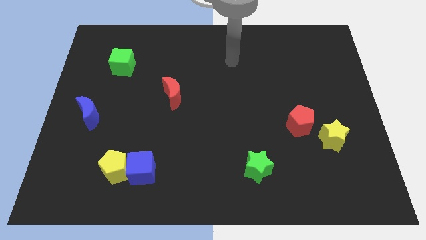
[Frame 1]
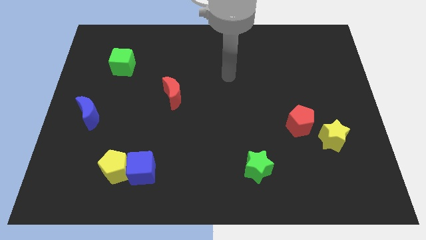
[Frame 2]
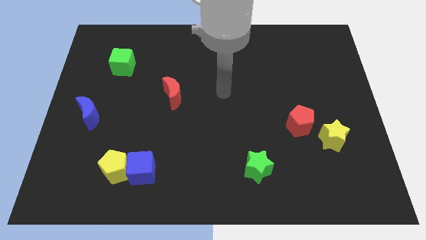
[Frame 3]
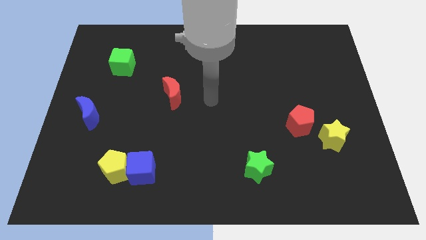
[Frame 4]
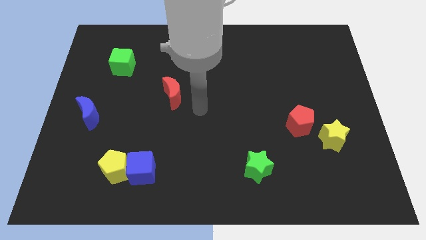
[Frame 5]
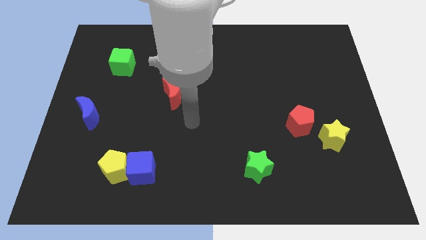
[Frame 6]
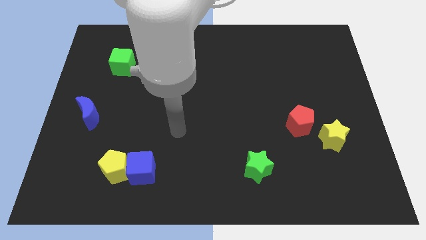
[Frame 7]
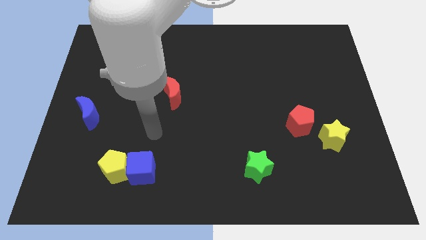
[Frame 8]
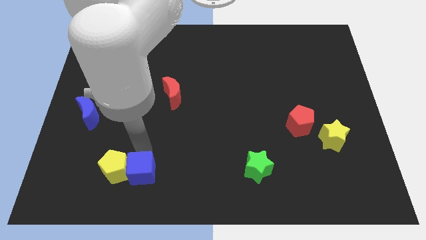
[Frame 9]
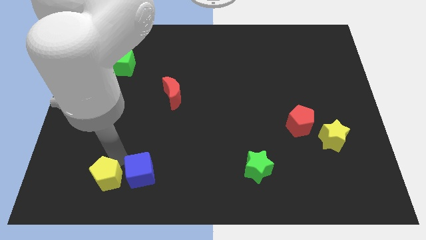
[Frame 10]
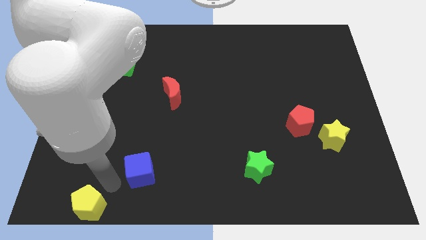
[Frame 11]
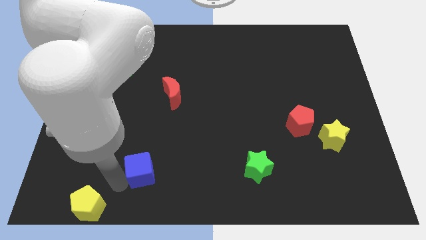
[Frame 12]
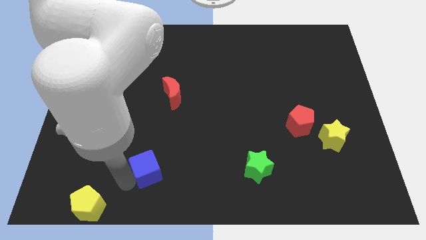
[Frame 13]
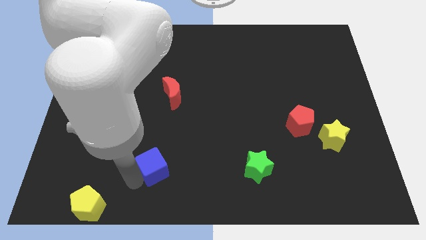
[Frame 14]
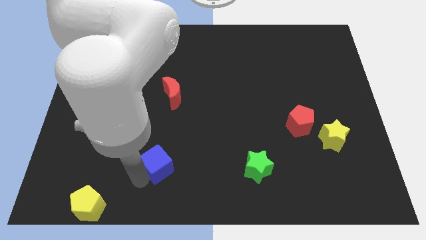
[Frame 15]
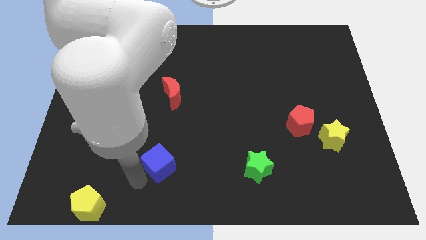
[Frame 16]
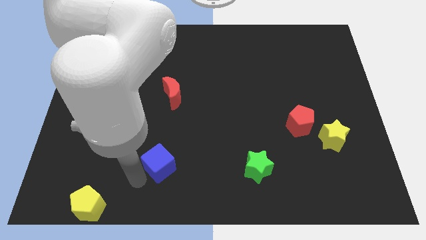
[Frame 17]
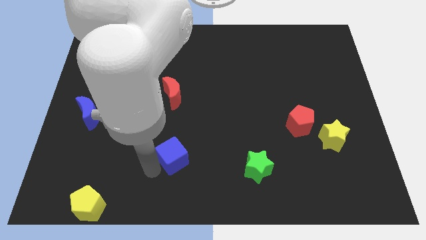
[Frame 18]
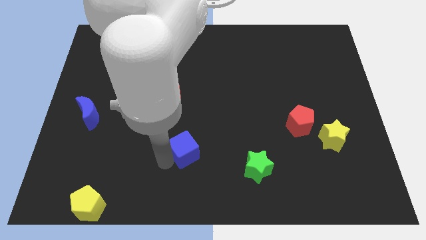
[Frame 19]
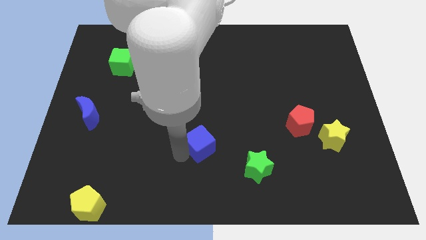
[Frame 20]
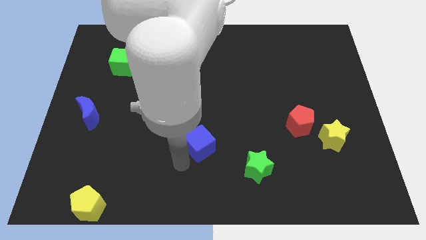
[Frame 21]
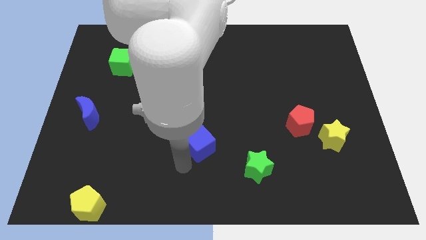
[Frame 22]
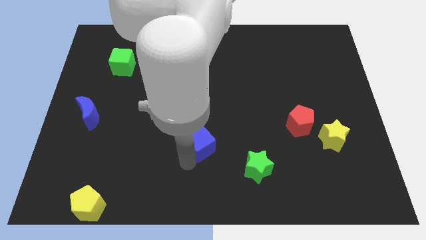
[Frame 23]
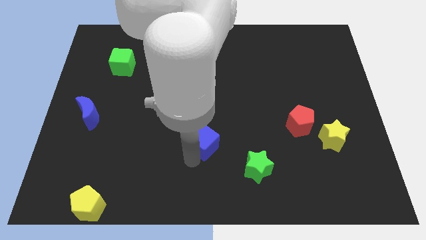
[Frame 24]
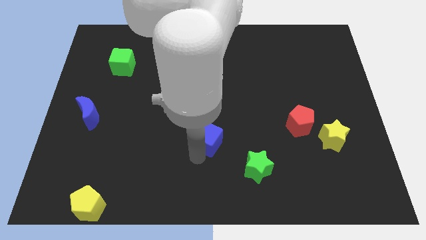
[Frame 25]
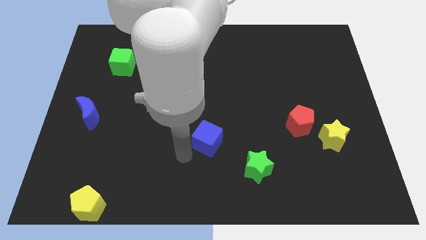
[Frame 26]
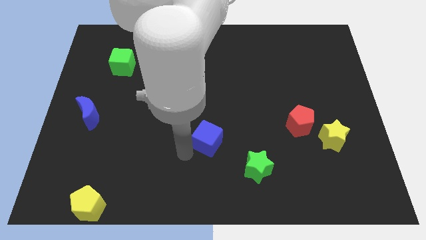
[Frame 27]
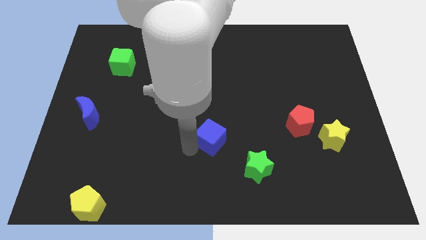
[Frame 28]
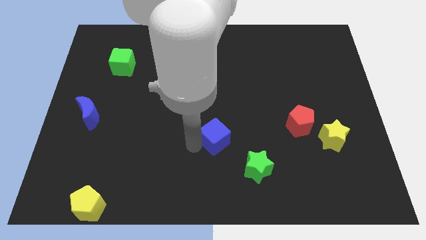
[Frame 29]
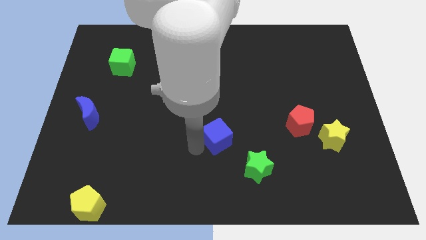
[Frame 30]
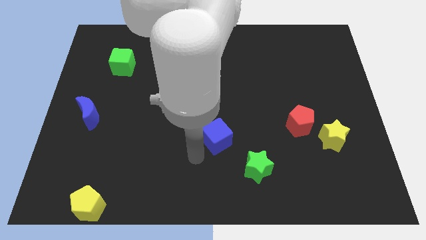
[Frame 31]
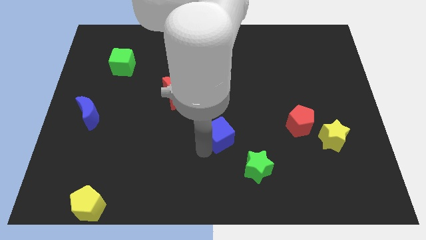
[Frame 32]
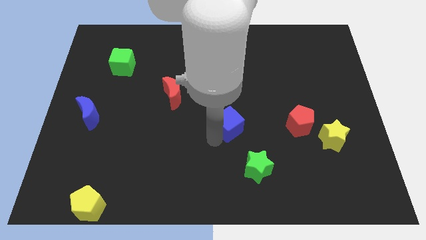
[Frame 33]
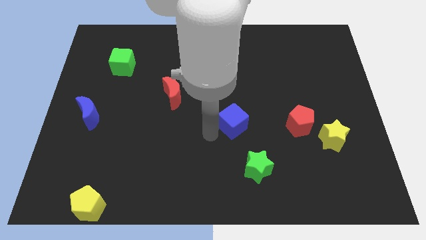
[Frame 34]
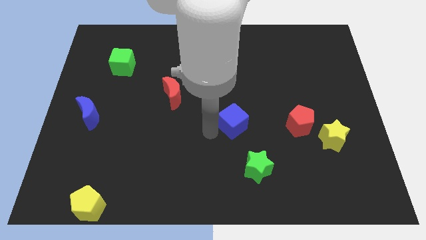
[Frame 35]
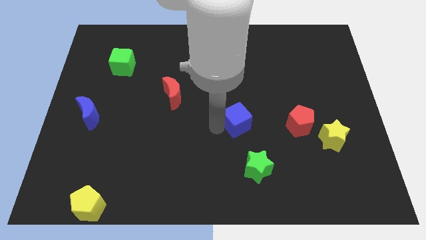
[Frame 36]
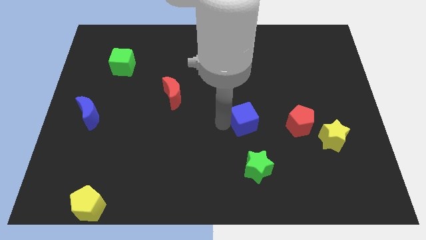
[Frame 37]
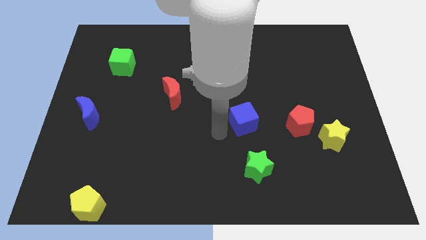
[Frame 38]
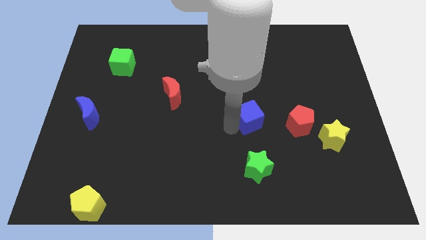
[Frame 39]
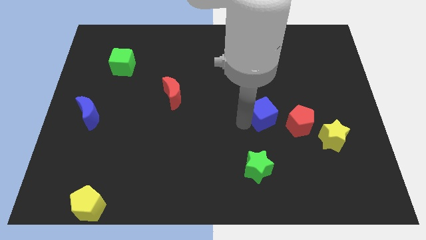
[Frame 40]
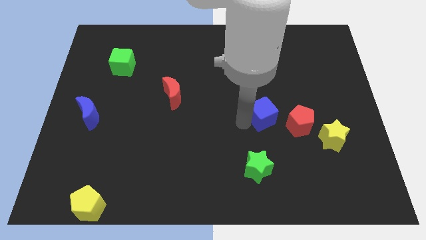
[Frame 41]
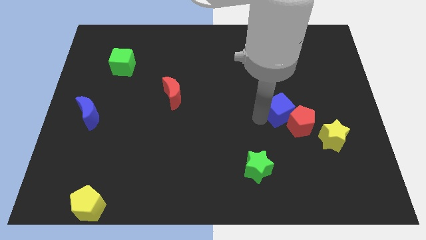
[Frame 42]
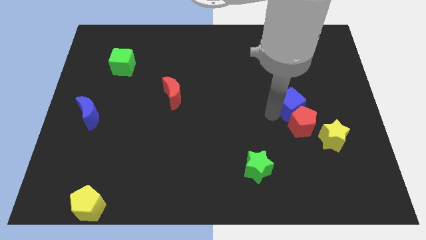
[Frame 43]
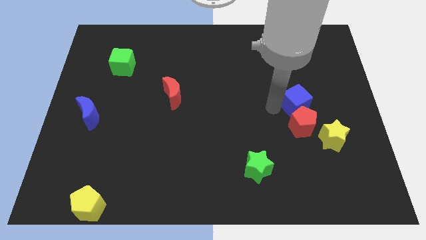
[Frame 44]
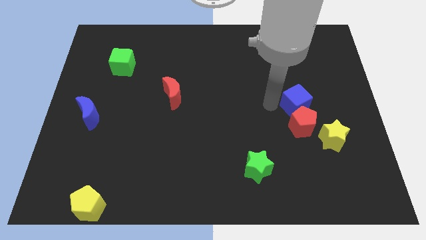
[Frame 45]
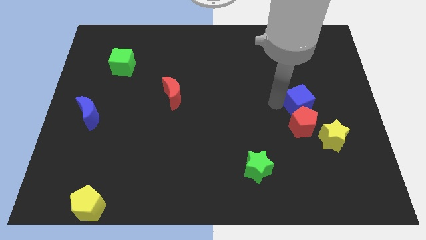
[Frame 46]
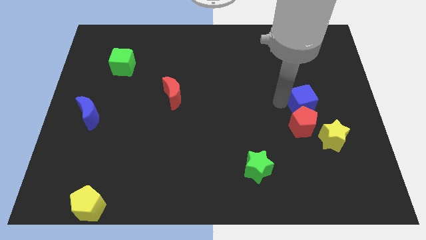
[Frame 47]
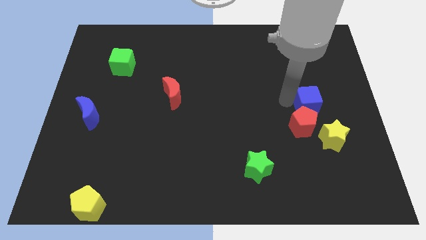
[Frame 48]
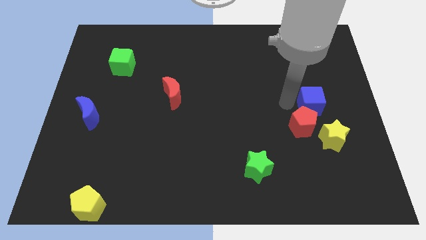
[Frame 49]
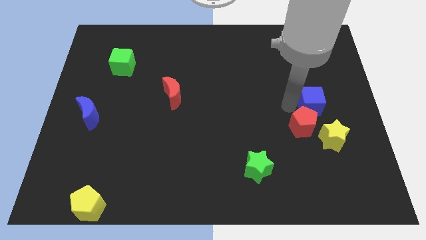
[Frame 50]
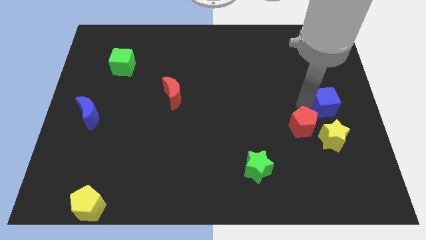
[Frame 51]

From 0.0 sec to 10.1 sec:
slide the blue cube to the center right

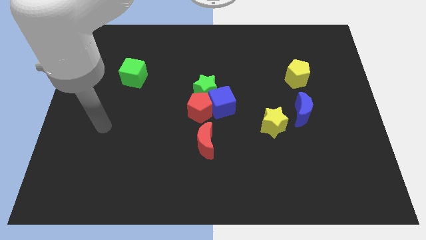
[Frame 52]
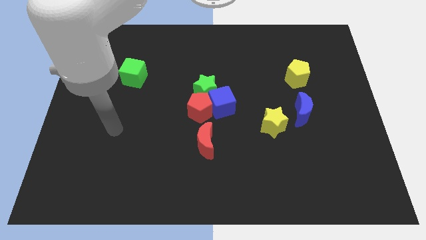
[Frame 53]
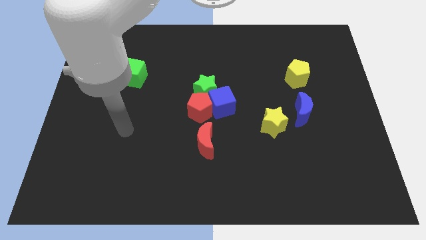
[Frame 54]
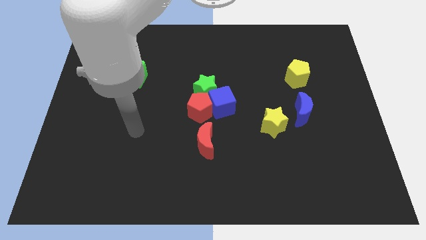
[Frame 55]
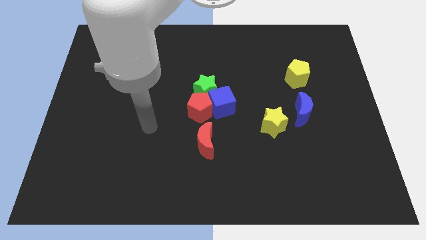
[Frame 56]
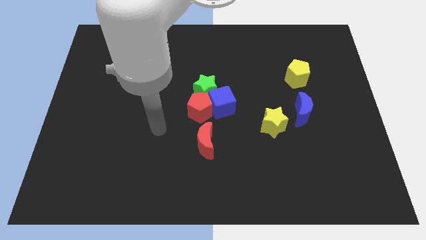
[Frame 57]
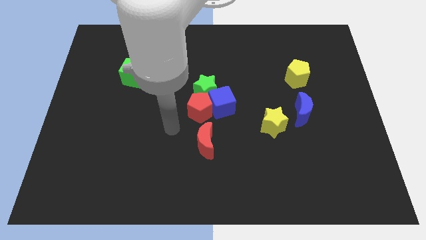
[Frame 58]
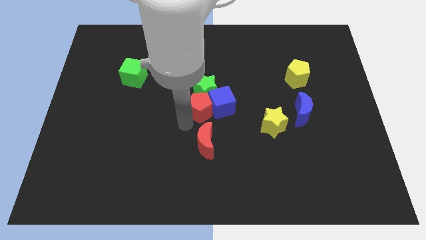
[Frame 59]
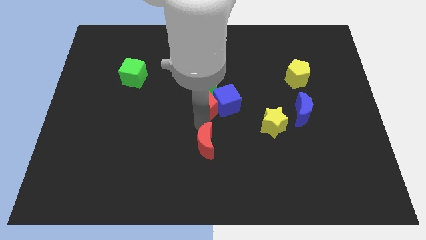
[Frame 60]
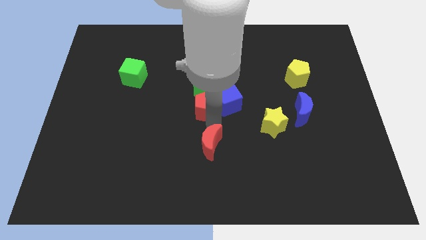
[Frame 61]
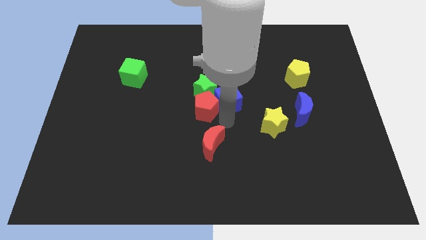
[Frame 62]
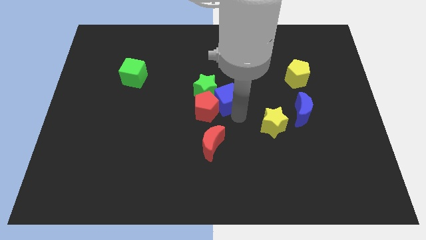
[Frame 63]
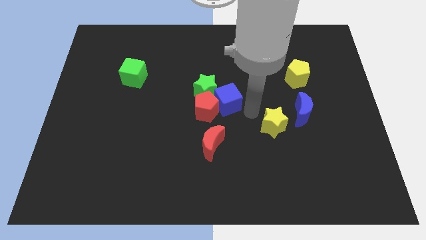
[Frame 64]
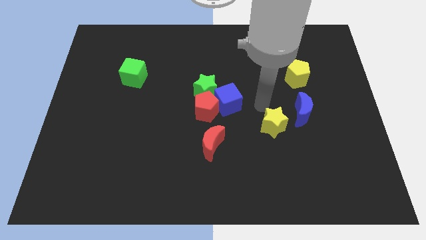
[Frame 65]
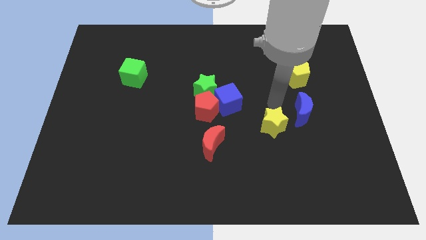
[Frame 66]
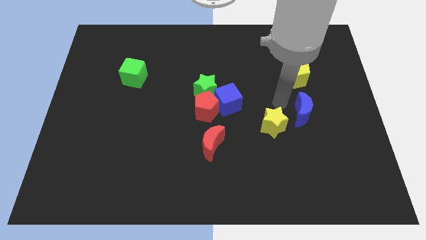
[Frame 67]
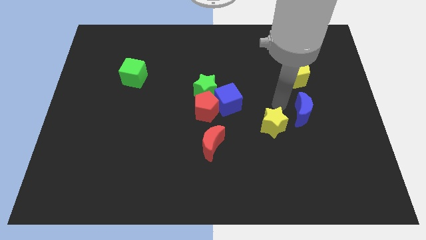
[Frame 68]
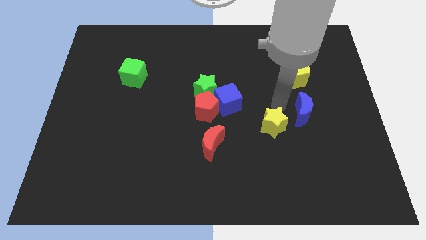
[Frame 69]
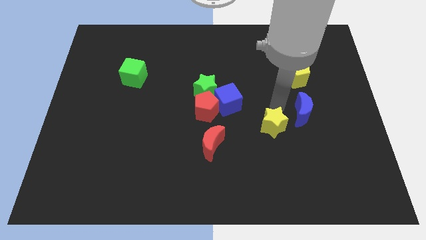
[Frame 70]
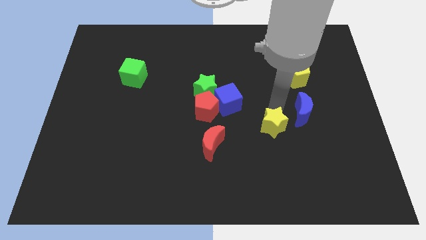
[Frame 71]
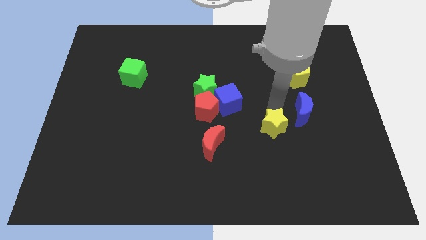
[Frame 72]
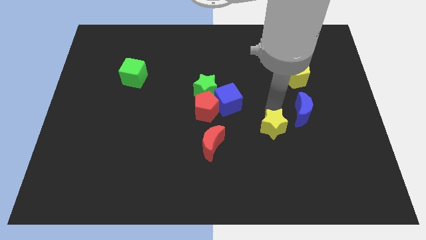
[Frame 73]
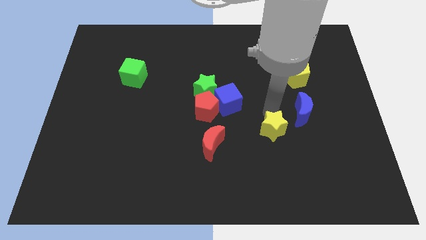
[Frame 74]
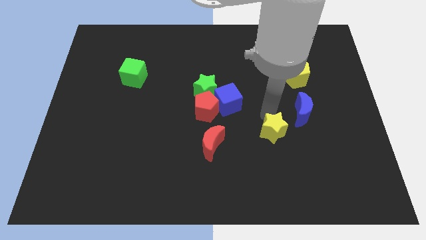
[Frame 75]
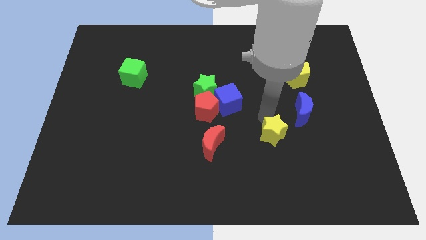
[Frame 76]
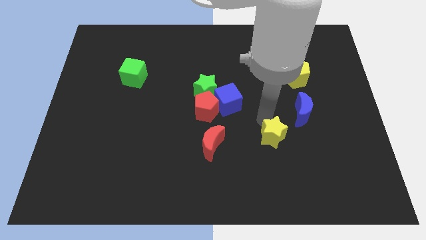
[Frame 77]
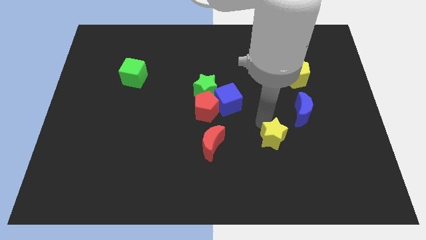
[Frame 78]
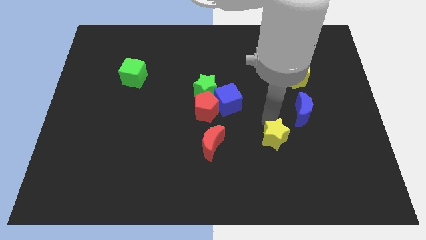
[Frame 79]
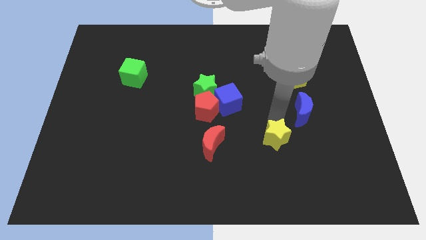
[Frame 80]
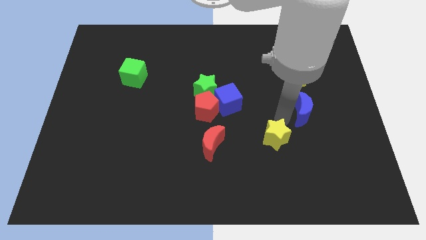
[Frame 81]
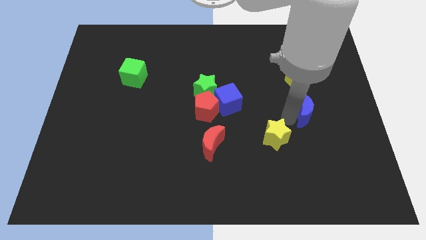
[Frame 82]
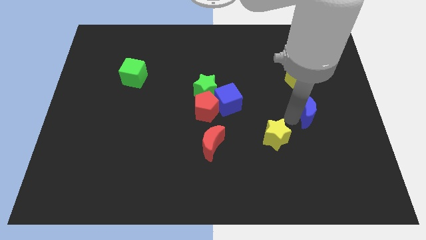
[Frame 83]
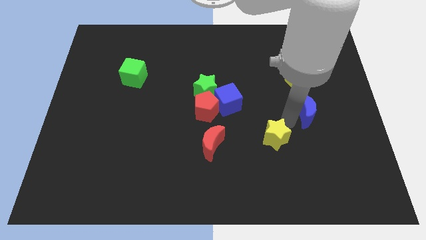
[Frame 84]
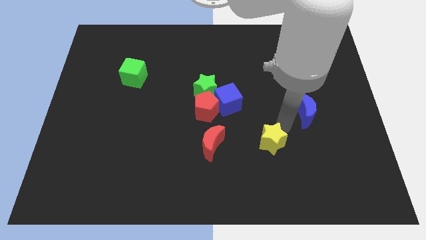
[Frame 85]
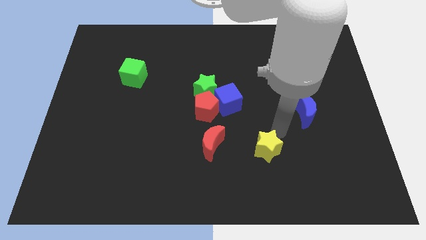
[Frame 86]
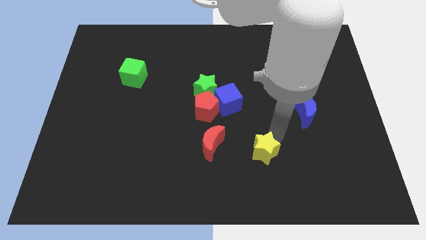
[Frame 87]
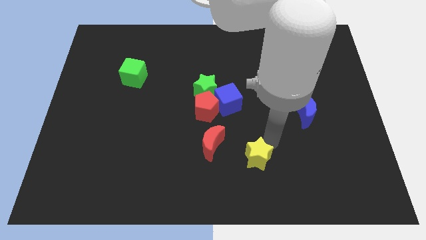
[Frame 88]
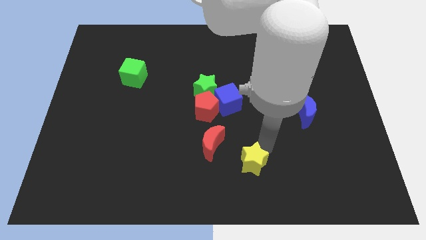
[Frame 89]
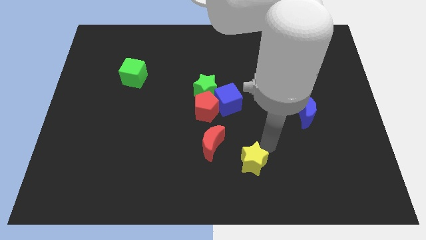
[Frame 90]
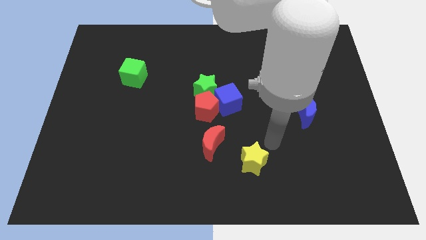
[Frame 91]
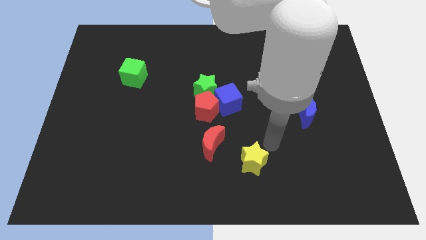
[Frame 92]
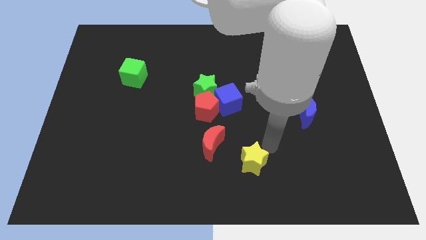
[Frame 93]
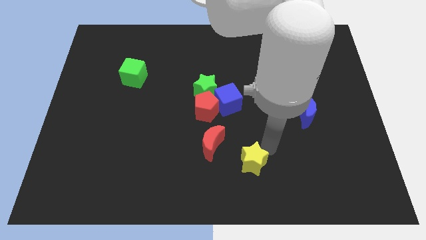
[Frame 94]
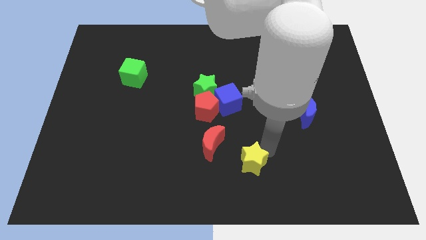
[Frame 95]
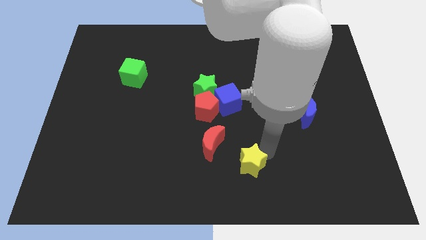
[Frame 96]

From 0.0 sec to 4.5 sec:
move the yellow star to the bottom
